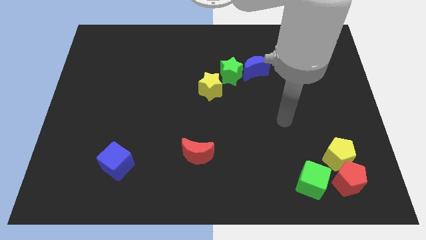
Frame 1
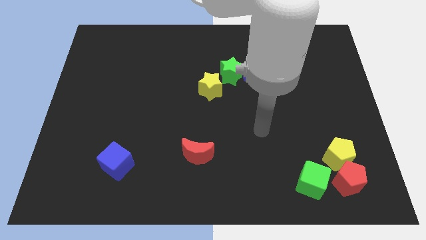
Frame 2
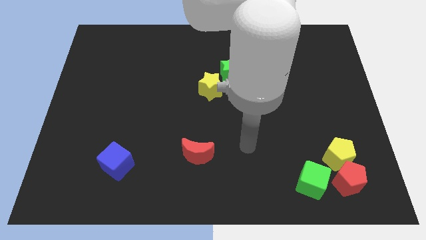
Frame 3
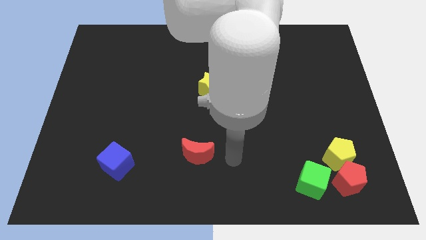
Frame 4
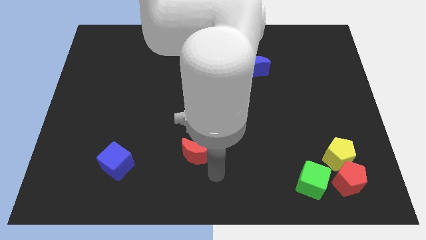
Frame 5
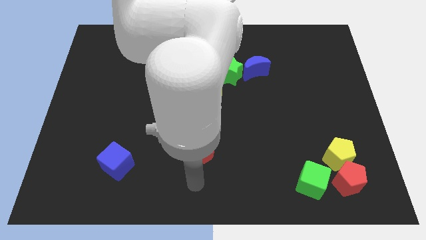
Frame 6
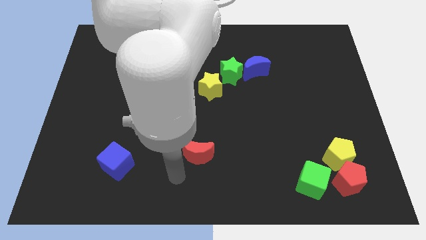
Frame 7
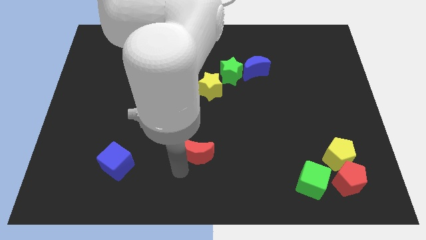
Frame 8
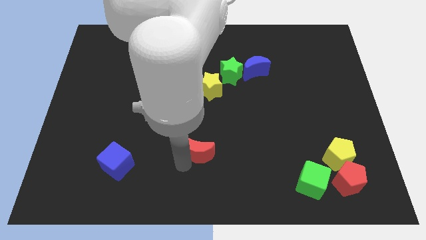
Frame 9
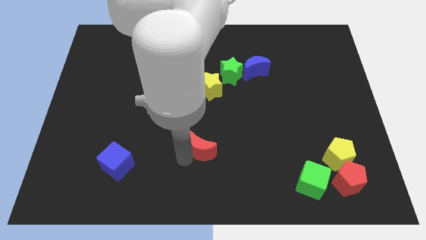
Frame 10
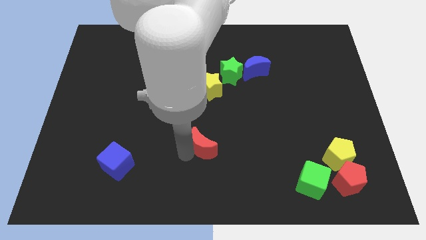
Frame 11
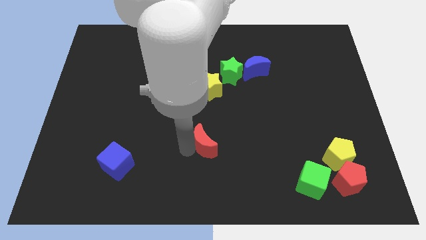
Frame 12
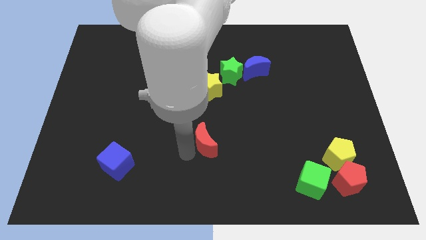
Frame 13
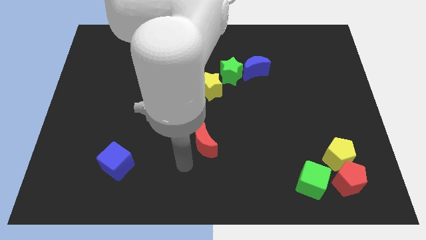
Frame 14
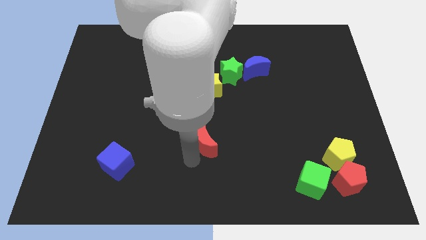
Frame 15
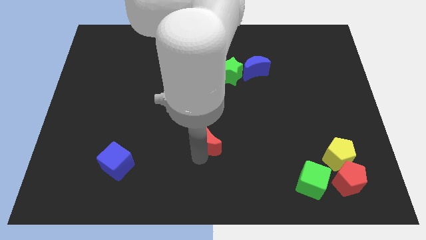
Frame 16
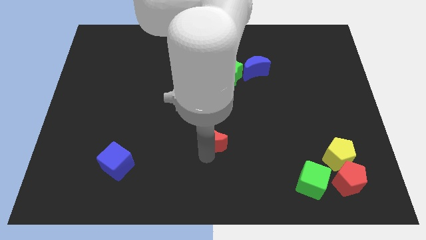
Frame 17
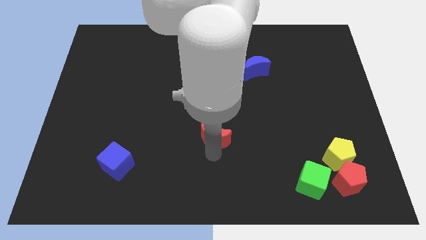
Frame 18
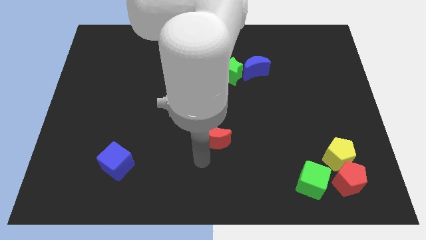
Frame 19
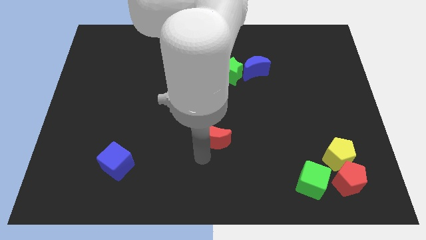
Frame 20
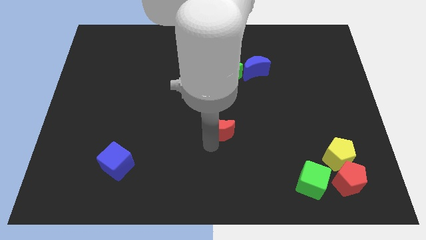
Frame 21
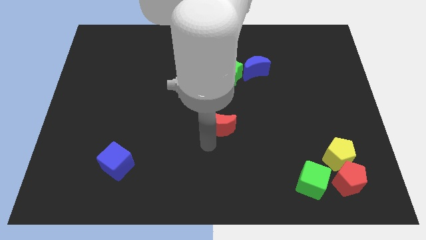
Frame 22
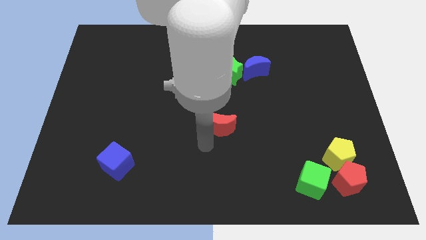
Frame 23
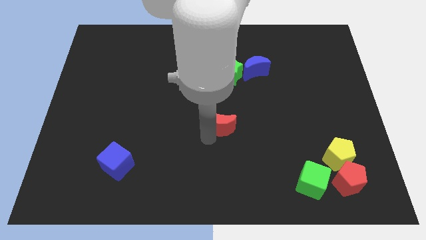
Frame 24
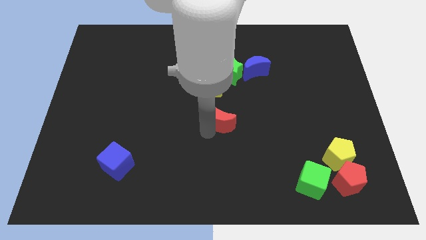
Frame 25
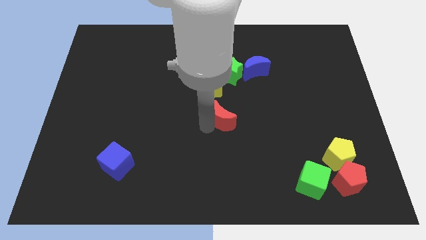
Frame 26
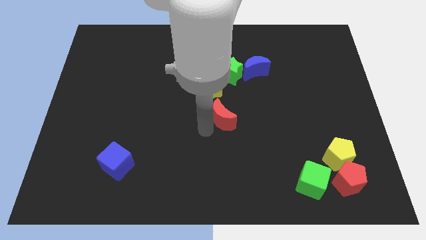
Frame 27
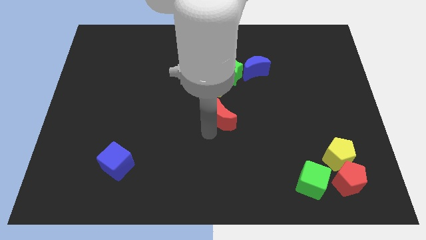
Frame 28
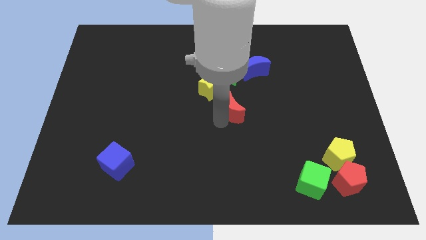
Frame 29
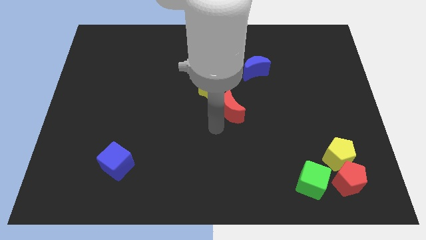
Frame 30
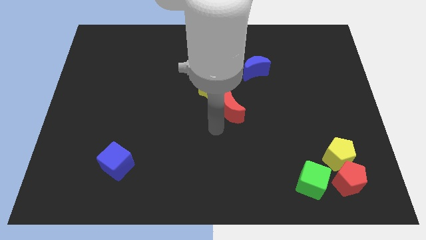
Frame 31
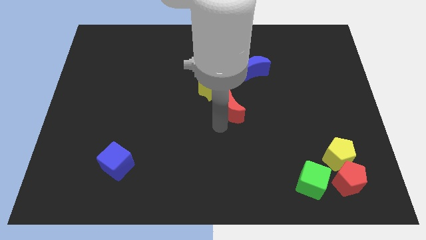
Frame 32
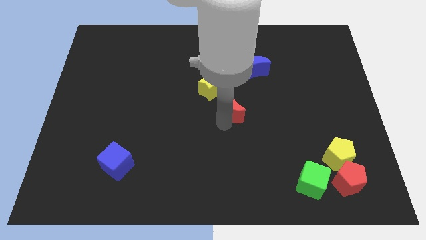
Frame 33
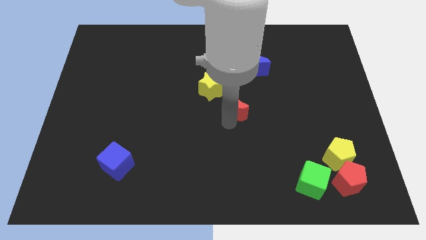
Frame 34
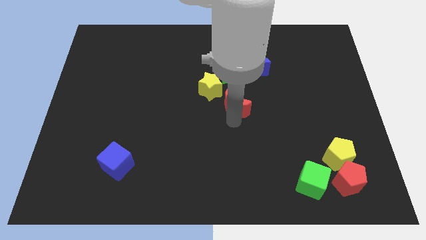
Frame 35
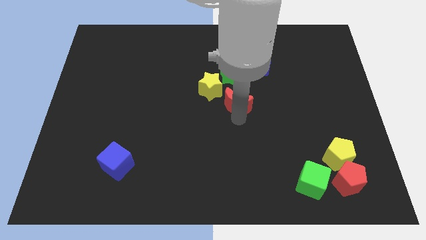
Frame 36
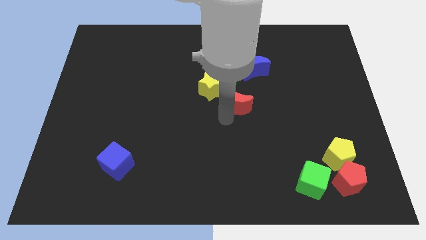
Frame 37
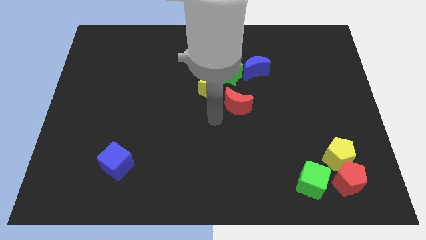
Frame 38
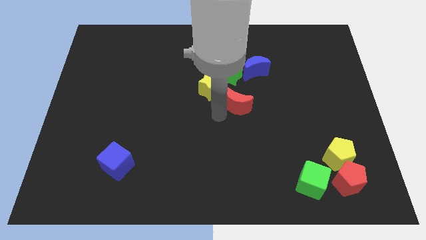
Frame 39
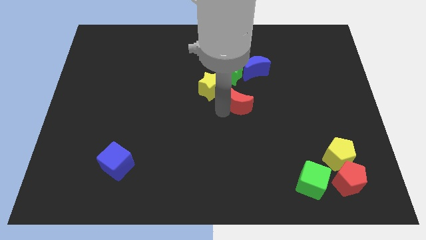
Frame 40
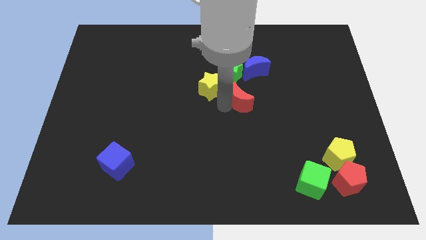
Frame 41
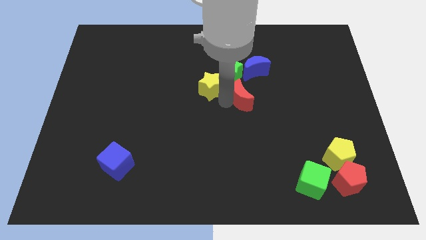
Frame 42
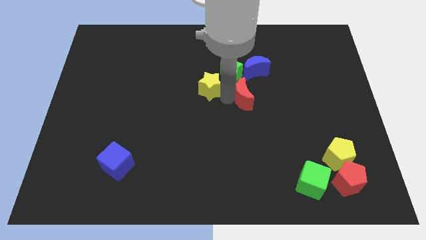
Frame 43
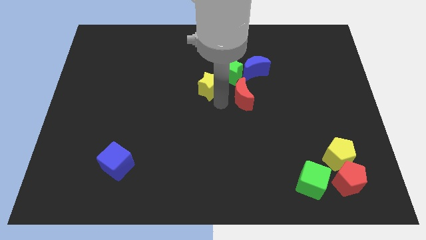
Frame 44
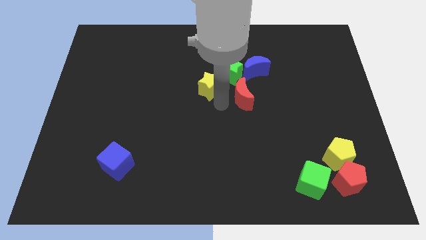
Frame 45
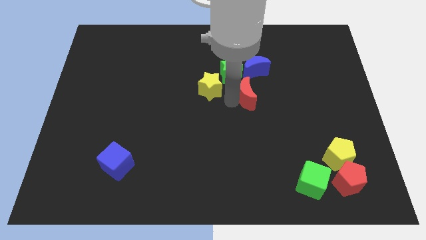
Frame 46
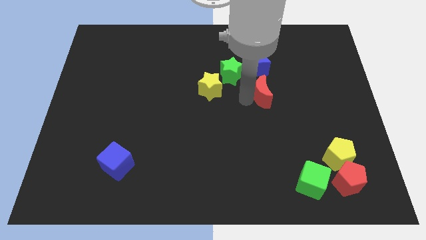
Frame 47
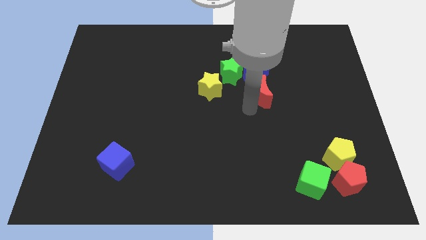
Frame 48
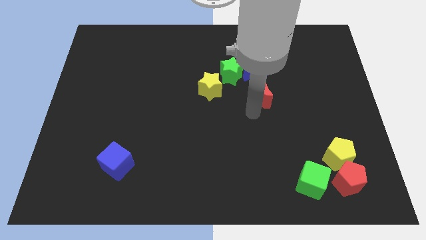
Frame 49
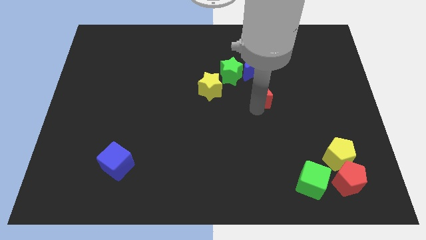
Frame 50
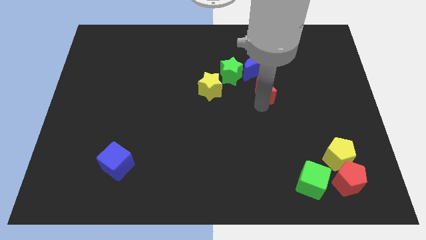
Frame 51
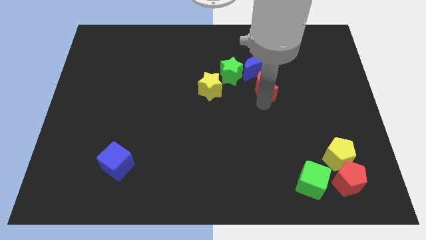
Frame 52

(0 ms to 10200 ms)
put the red moon just right of the green star
